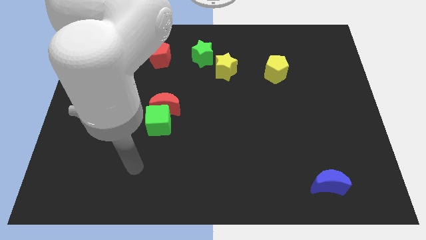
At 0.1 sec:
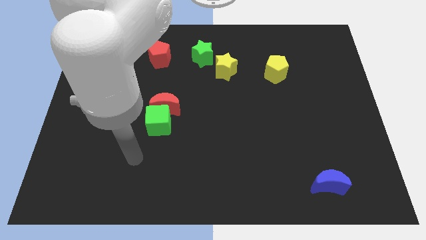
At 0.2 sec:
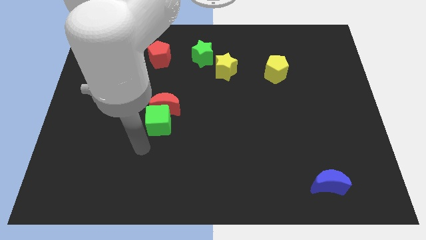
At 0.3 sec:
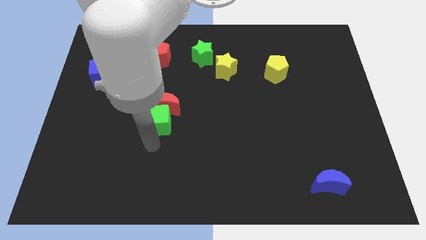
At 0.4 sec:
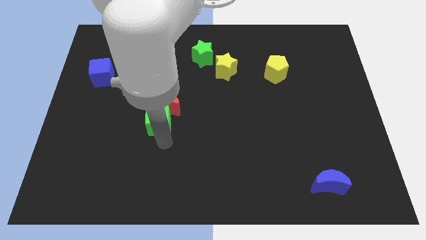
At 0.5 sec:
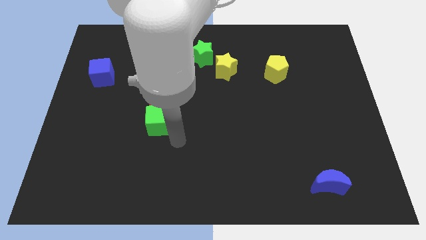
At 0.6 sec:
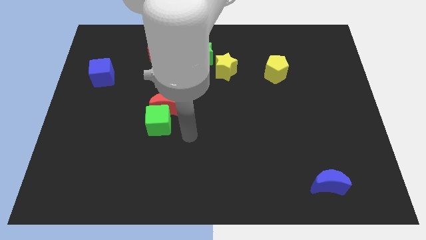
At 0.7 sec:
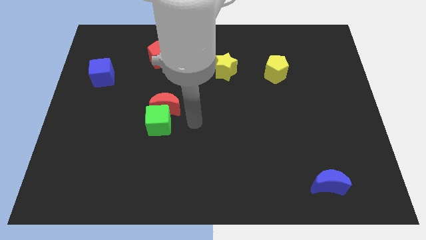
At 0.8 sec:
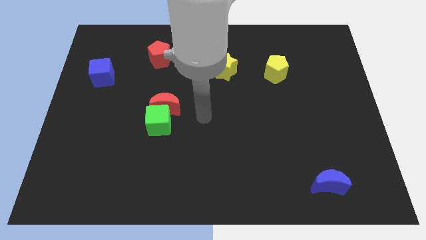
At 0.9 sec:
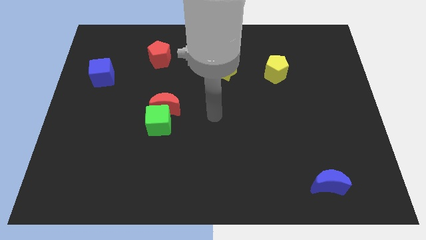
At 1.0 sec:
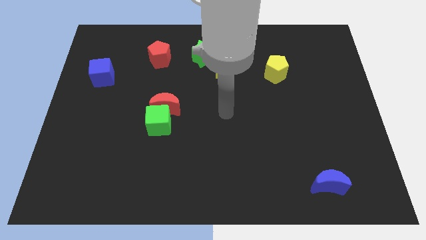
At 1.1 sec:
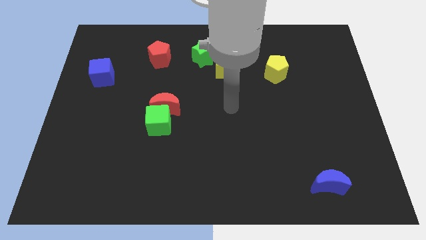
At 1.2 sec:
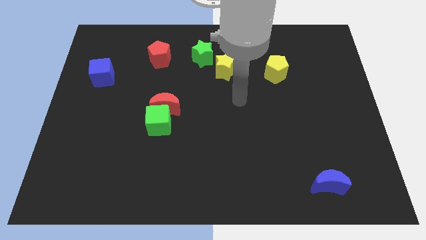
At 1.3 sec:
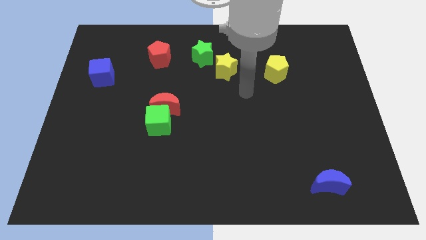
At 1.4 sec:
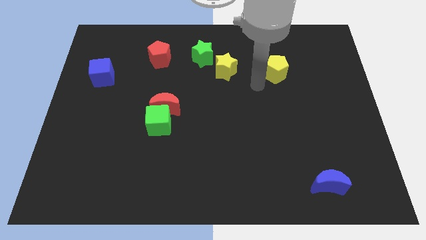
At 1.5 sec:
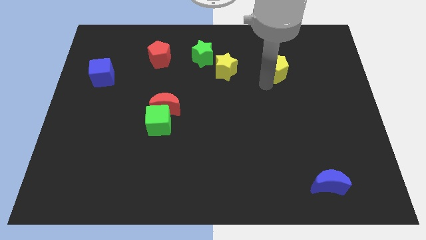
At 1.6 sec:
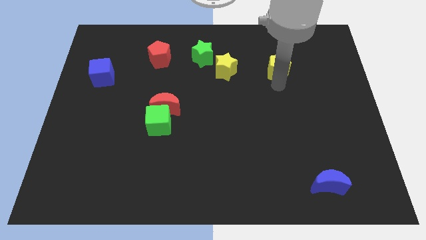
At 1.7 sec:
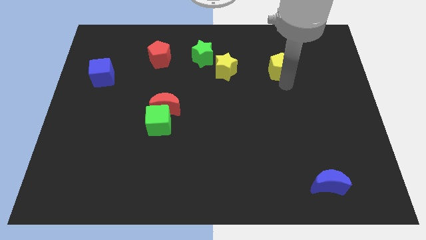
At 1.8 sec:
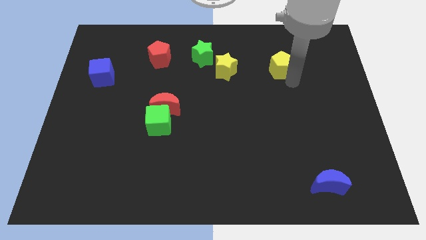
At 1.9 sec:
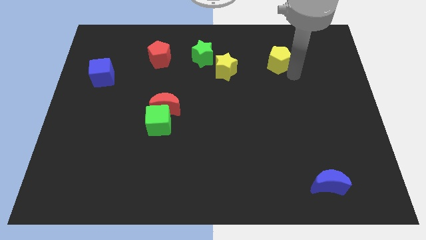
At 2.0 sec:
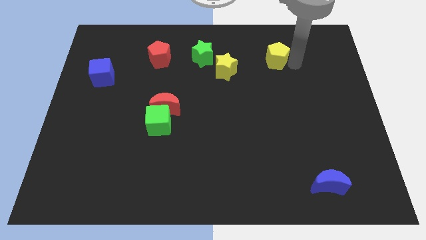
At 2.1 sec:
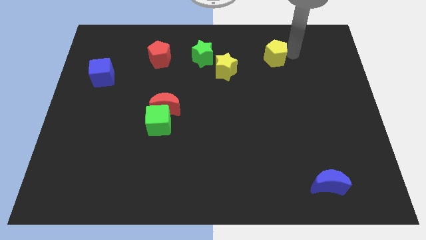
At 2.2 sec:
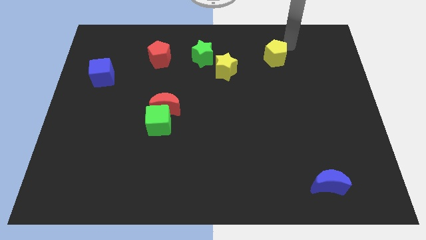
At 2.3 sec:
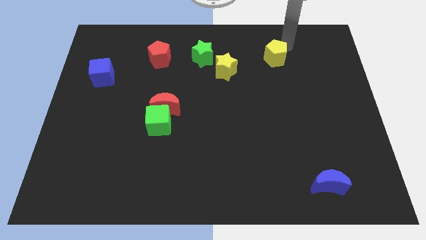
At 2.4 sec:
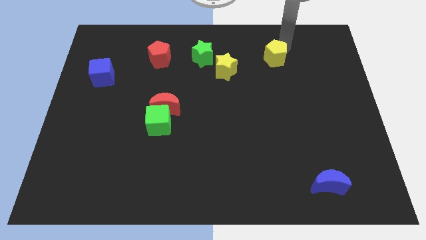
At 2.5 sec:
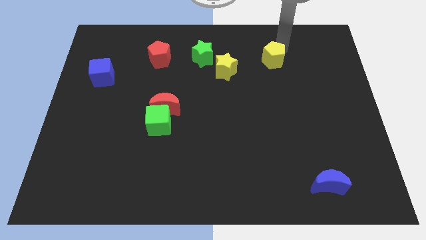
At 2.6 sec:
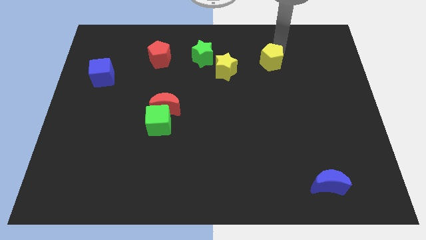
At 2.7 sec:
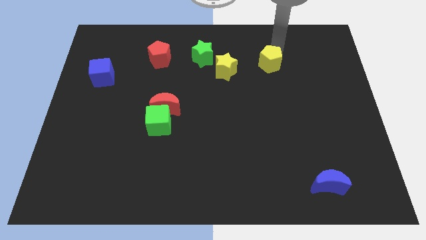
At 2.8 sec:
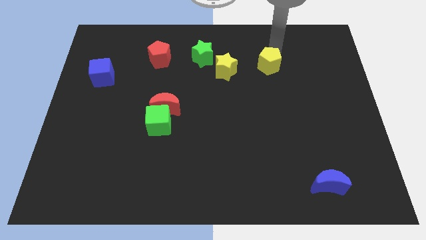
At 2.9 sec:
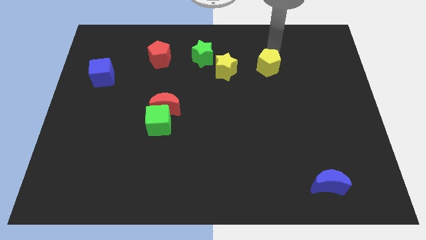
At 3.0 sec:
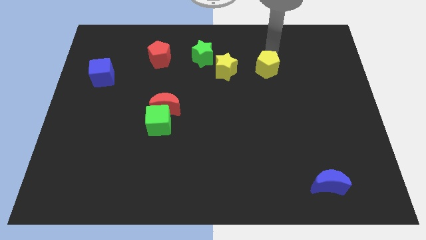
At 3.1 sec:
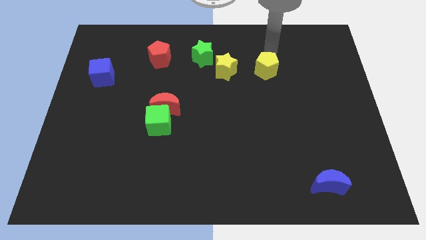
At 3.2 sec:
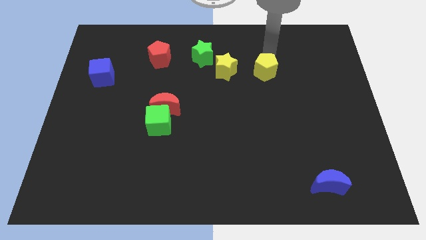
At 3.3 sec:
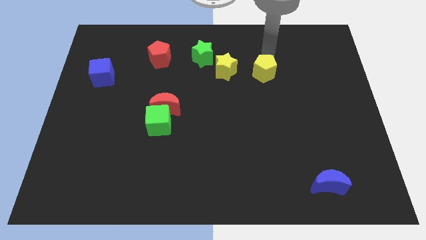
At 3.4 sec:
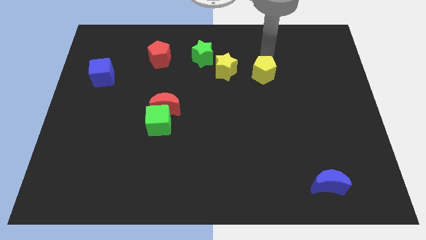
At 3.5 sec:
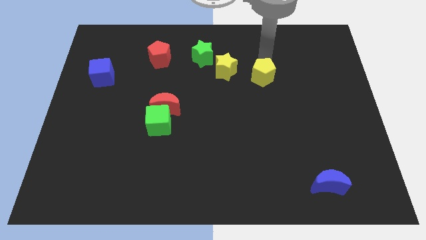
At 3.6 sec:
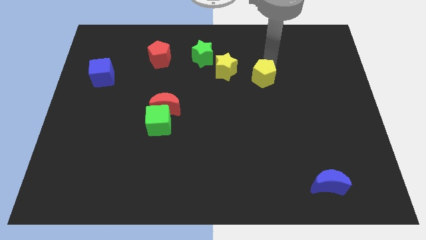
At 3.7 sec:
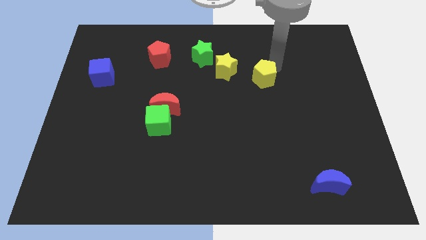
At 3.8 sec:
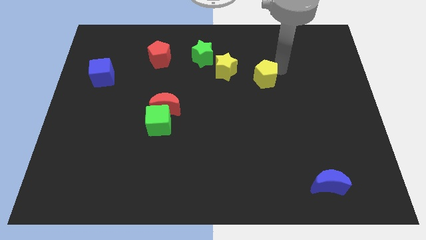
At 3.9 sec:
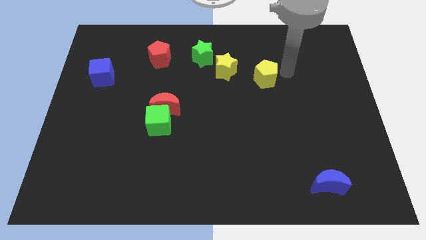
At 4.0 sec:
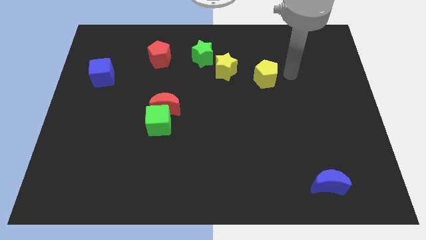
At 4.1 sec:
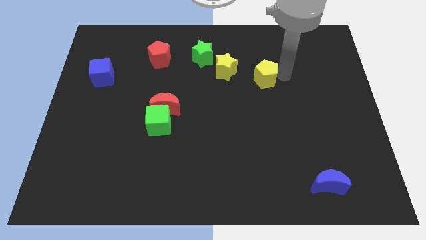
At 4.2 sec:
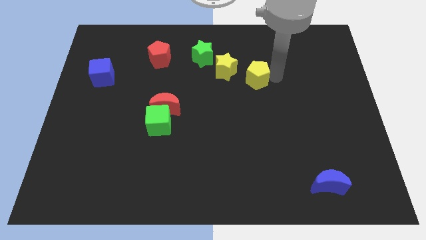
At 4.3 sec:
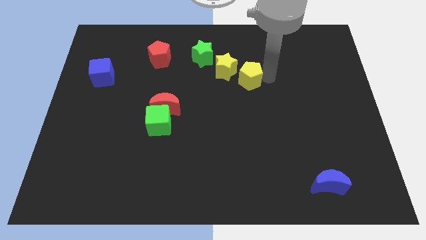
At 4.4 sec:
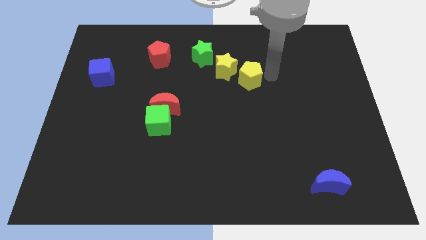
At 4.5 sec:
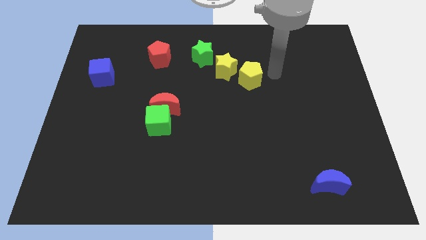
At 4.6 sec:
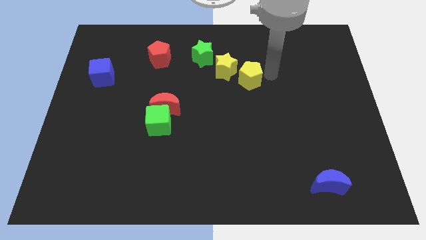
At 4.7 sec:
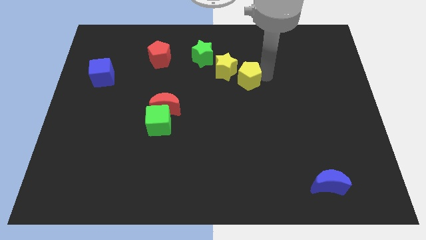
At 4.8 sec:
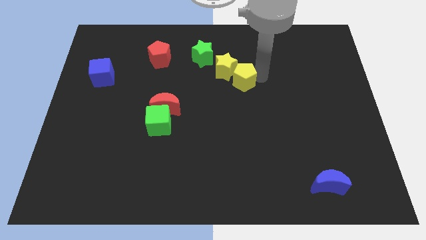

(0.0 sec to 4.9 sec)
slightly push the yellow pentagon left

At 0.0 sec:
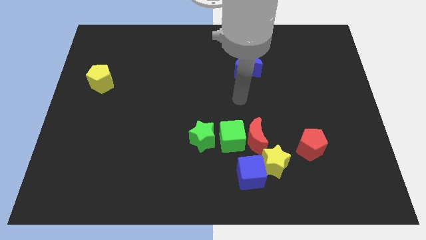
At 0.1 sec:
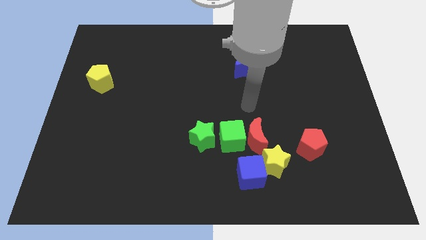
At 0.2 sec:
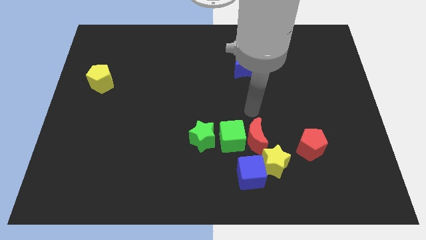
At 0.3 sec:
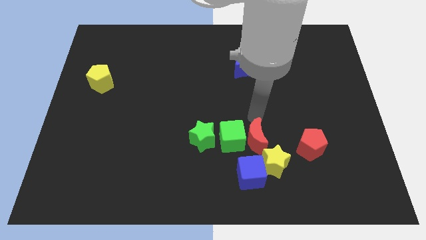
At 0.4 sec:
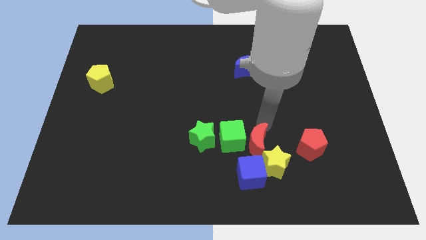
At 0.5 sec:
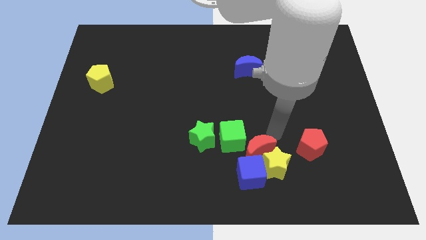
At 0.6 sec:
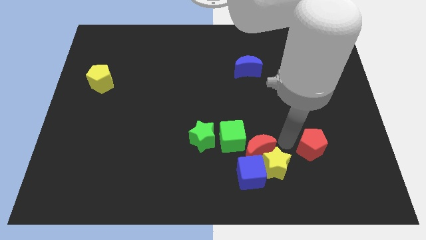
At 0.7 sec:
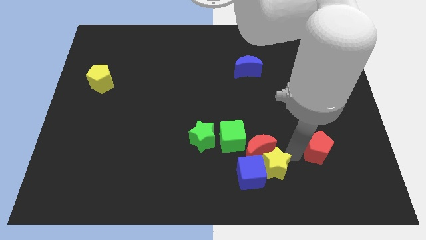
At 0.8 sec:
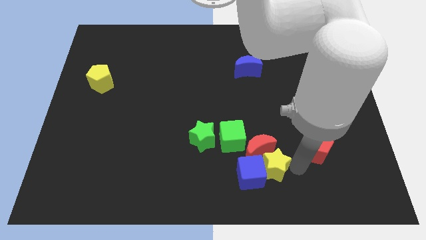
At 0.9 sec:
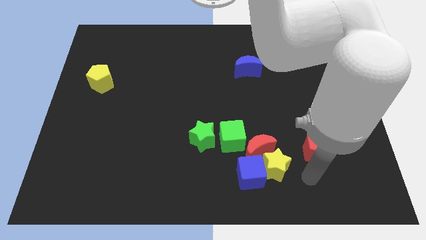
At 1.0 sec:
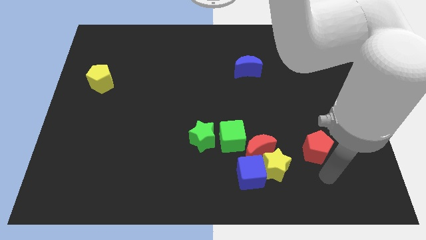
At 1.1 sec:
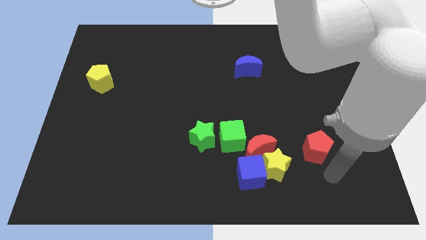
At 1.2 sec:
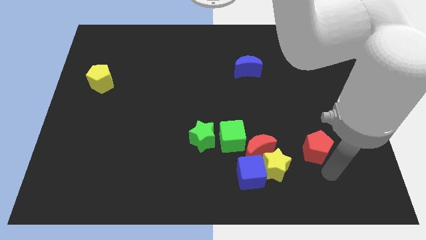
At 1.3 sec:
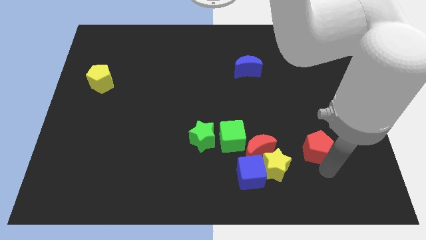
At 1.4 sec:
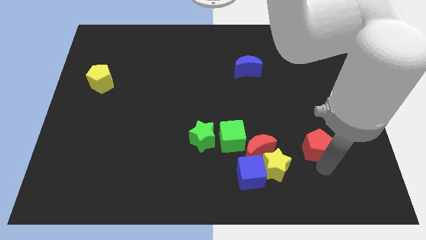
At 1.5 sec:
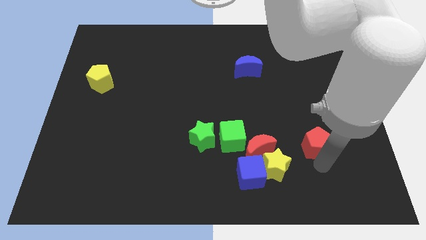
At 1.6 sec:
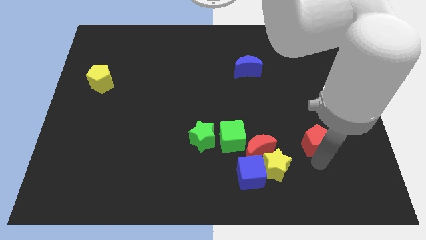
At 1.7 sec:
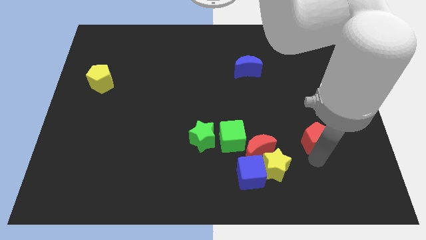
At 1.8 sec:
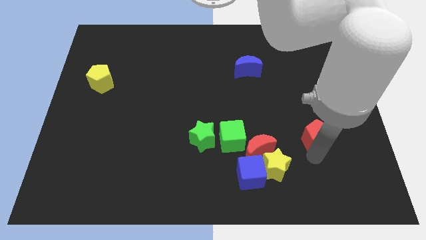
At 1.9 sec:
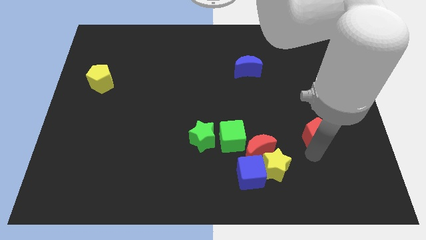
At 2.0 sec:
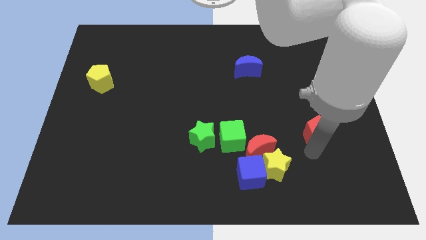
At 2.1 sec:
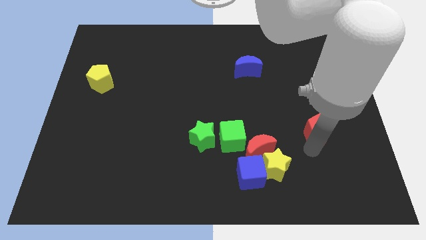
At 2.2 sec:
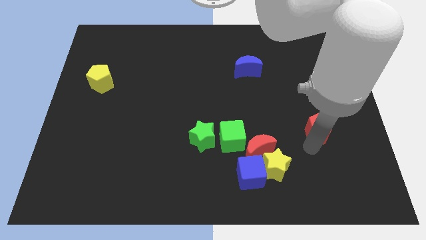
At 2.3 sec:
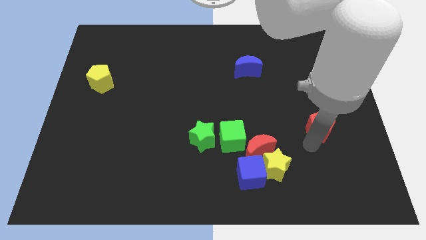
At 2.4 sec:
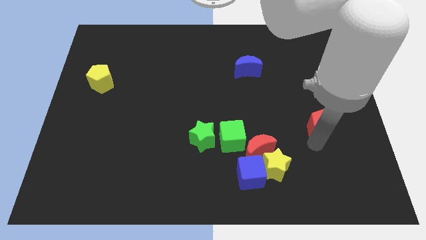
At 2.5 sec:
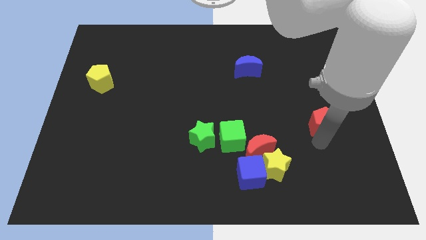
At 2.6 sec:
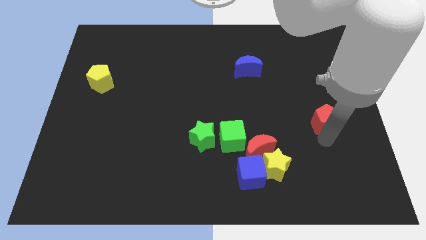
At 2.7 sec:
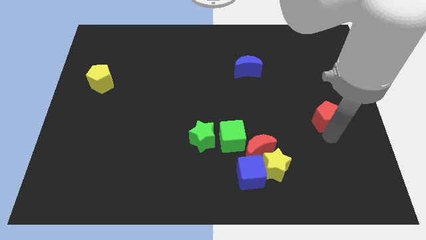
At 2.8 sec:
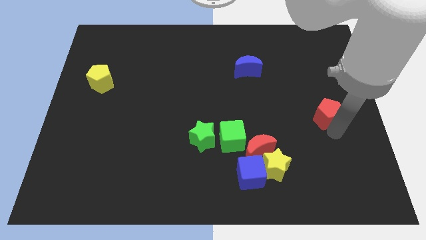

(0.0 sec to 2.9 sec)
slide the red pentagon up a bit
